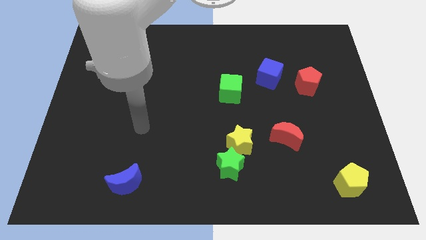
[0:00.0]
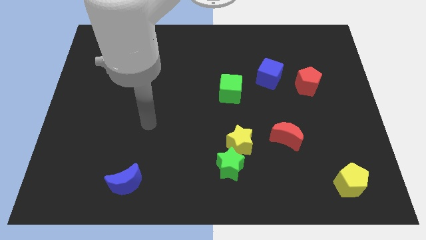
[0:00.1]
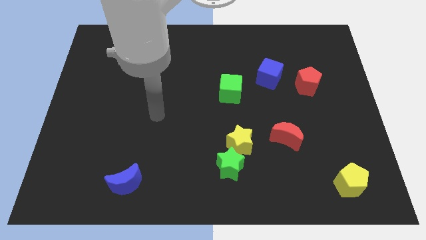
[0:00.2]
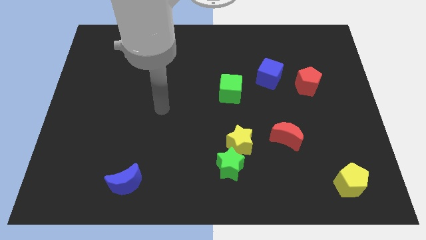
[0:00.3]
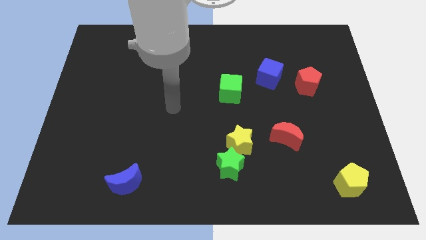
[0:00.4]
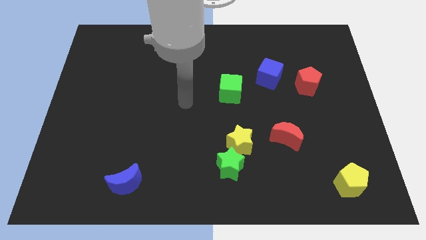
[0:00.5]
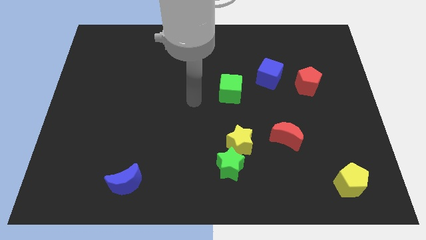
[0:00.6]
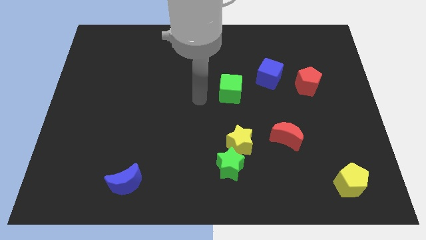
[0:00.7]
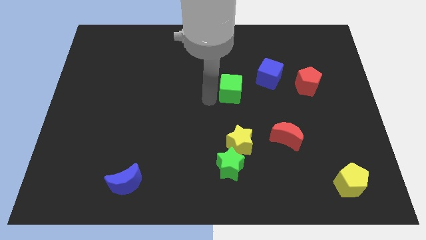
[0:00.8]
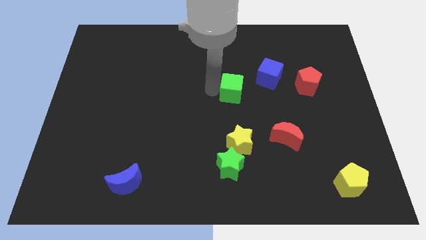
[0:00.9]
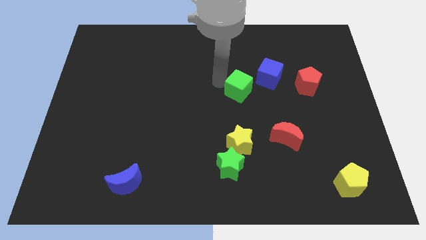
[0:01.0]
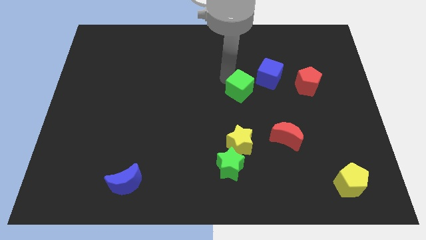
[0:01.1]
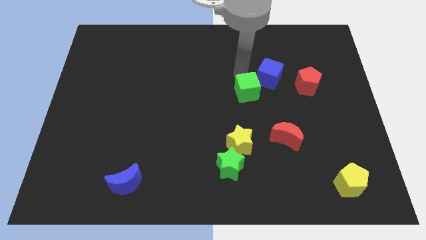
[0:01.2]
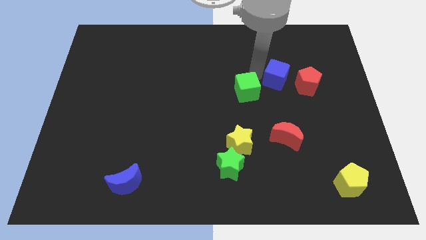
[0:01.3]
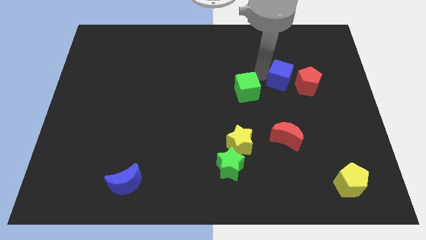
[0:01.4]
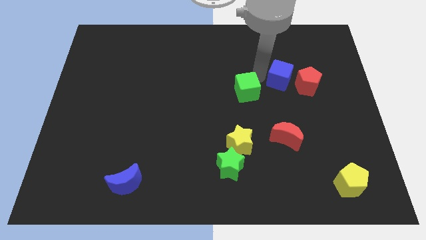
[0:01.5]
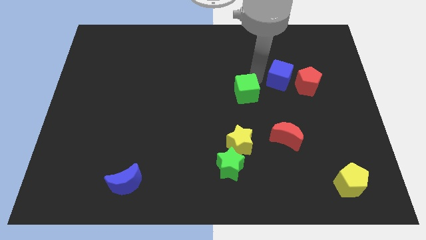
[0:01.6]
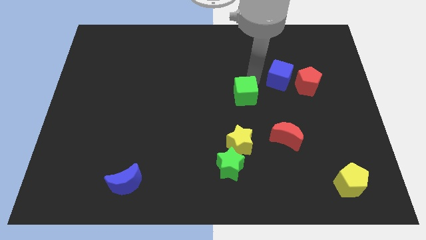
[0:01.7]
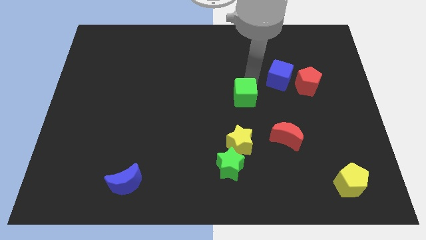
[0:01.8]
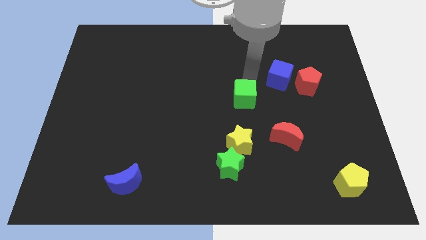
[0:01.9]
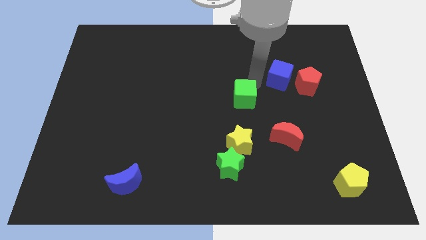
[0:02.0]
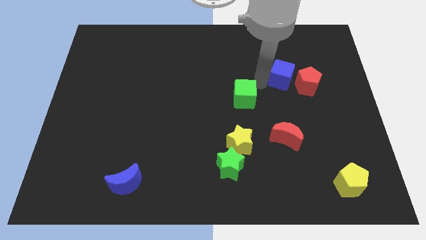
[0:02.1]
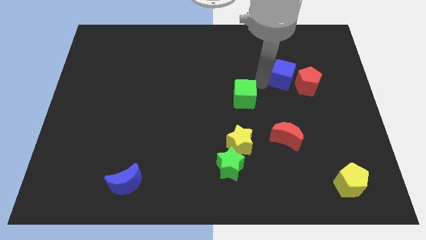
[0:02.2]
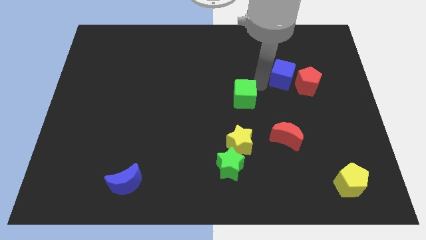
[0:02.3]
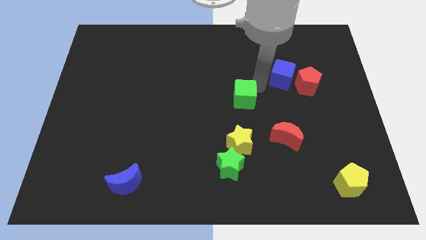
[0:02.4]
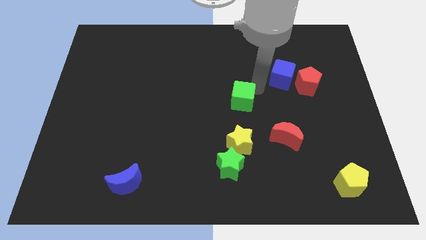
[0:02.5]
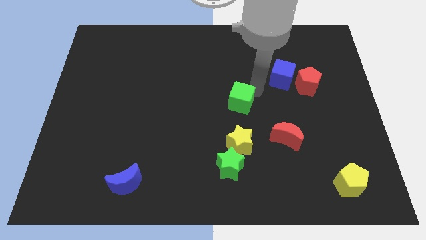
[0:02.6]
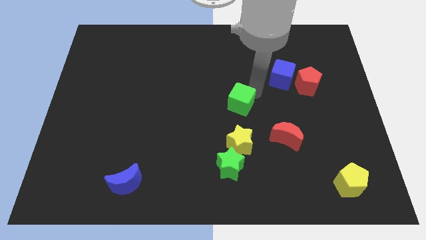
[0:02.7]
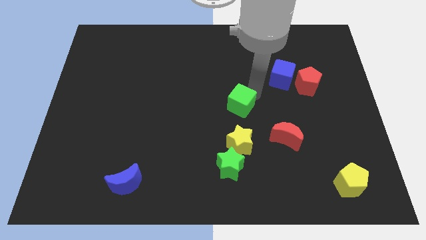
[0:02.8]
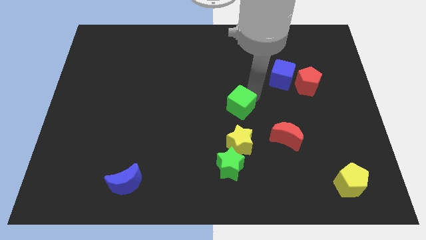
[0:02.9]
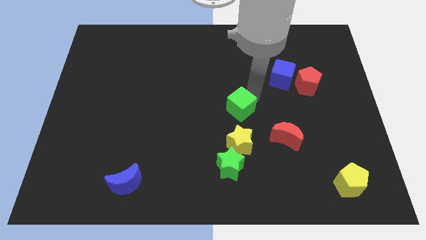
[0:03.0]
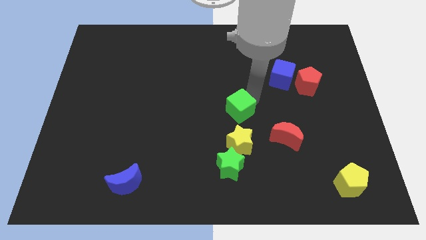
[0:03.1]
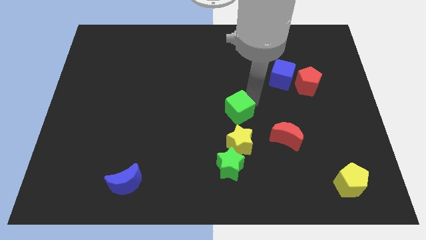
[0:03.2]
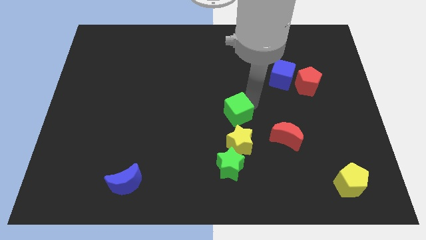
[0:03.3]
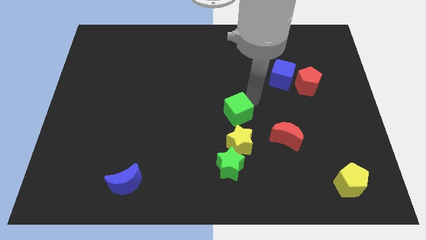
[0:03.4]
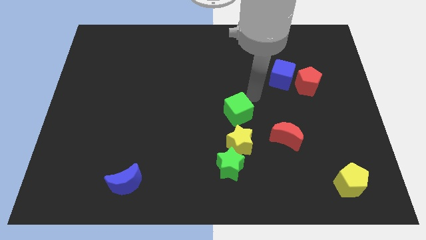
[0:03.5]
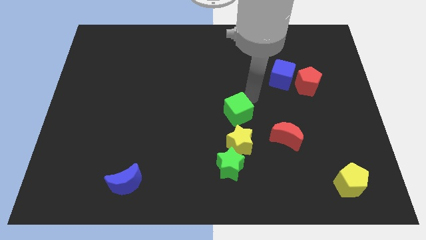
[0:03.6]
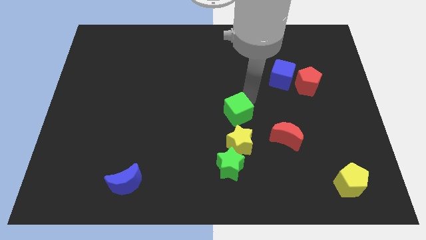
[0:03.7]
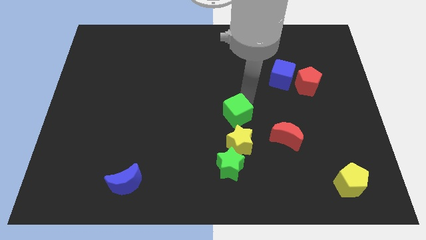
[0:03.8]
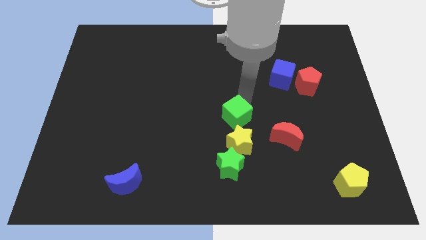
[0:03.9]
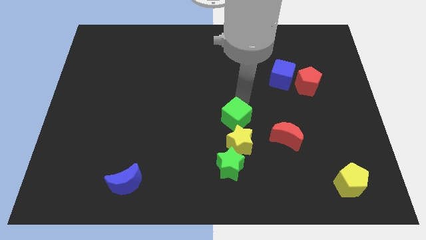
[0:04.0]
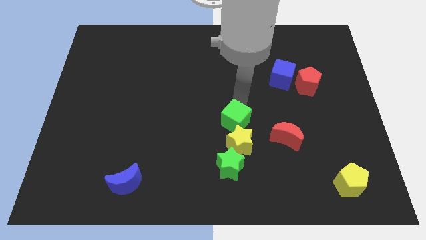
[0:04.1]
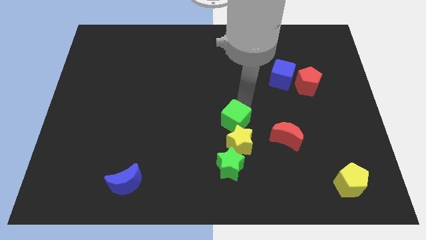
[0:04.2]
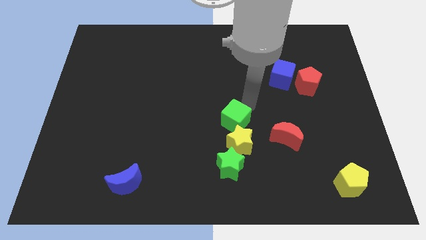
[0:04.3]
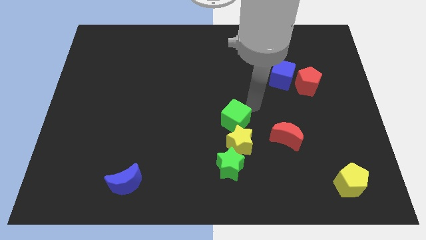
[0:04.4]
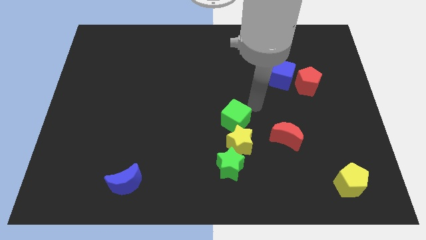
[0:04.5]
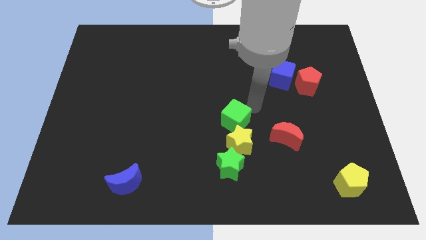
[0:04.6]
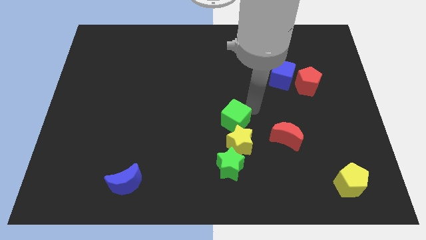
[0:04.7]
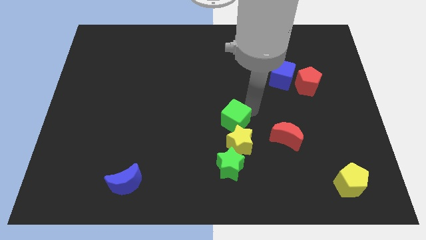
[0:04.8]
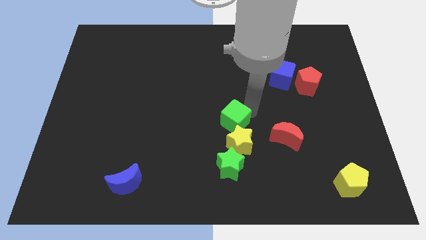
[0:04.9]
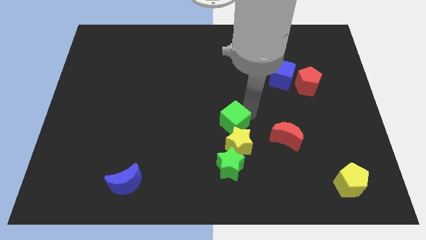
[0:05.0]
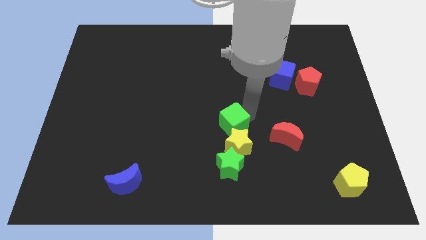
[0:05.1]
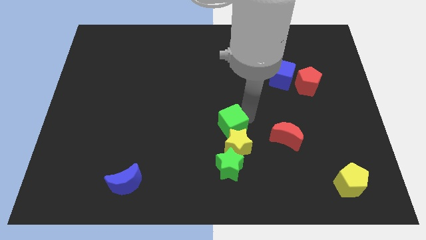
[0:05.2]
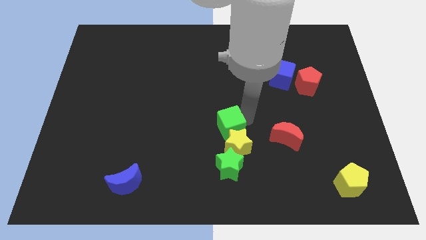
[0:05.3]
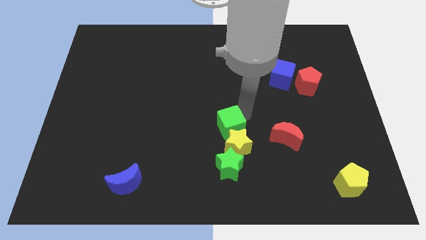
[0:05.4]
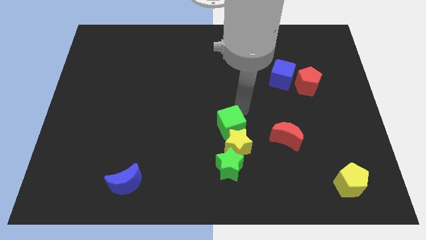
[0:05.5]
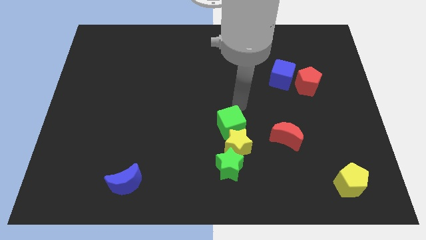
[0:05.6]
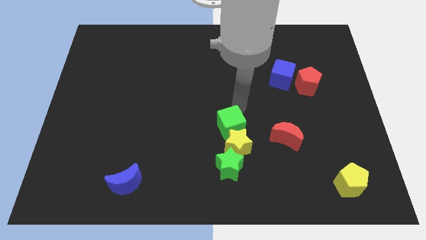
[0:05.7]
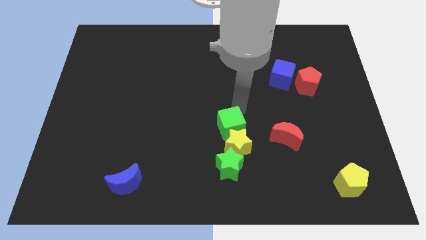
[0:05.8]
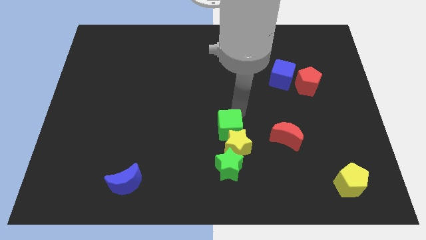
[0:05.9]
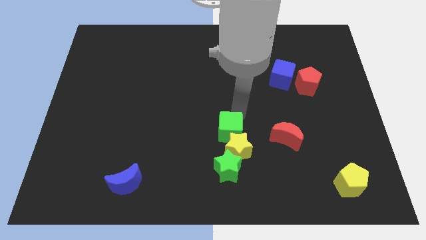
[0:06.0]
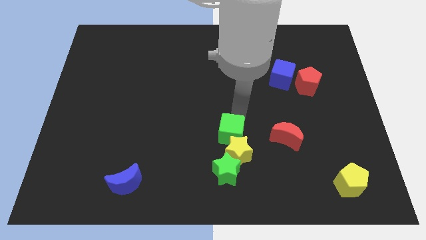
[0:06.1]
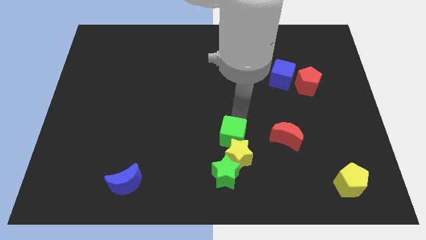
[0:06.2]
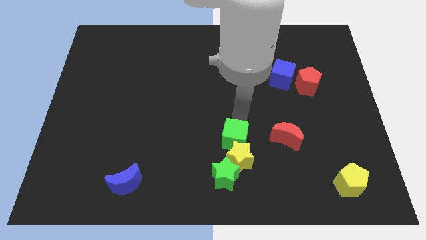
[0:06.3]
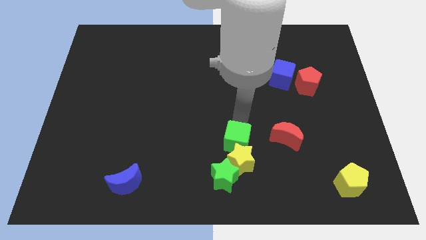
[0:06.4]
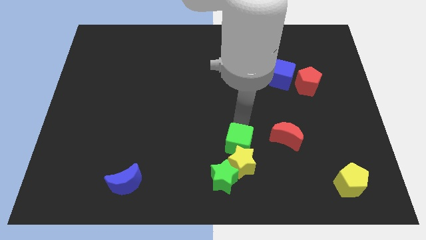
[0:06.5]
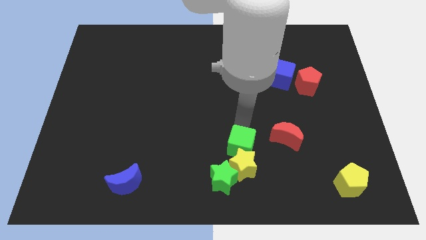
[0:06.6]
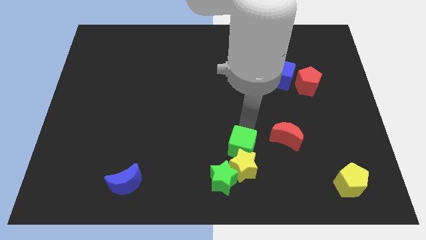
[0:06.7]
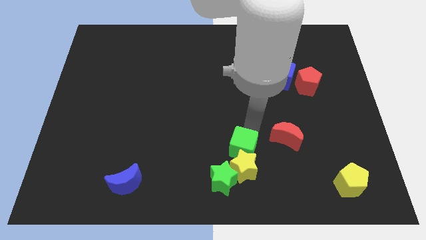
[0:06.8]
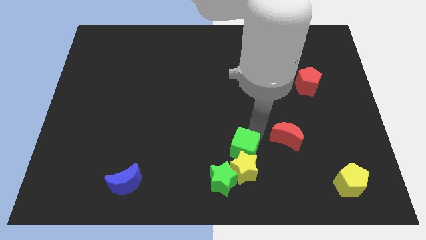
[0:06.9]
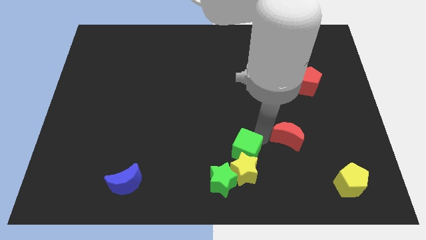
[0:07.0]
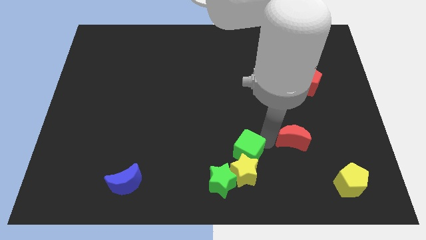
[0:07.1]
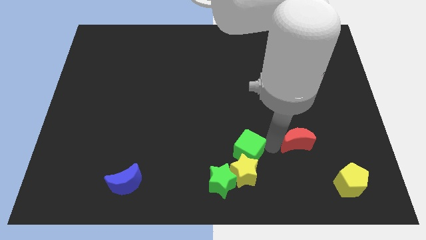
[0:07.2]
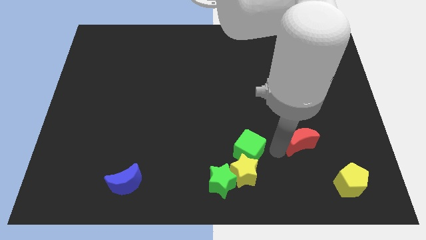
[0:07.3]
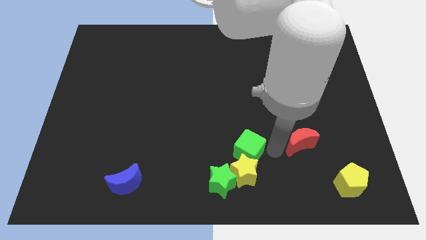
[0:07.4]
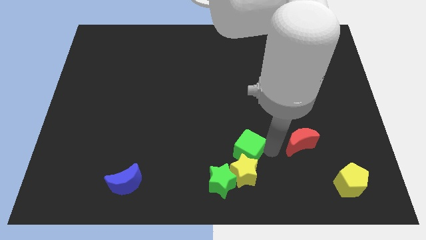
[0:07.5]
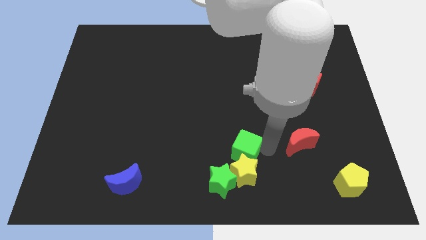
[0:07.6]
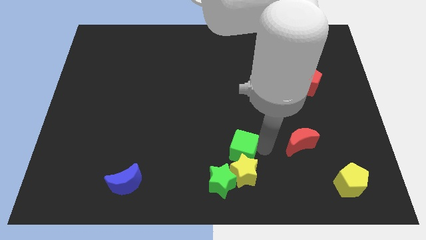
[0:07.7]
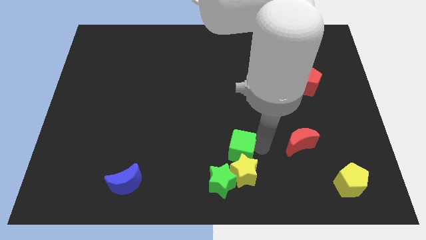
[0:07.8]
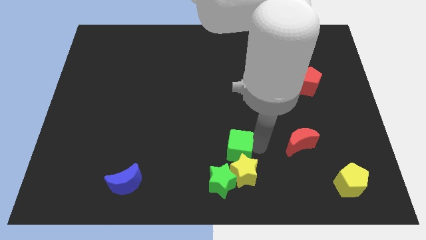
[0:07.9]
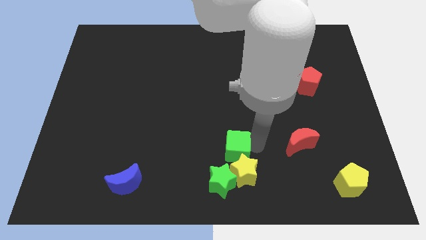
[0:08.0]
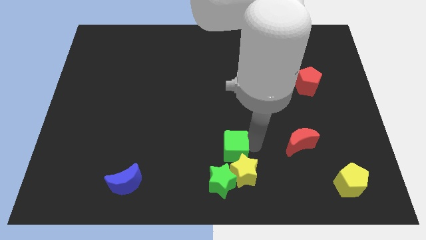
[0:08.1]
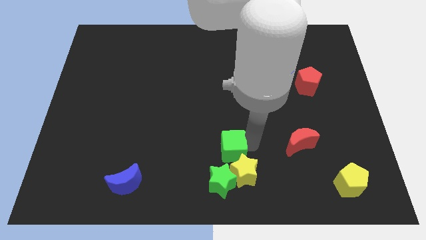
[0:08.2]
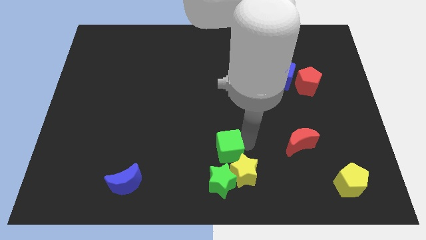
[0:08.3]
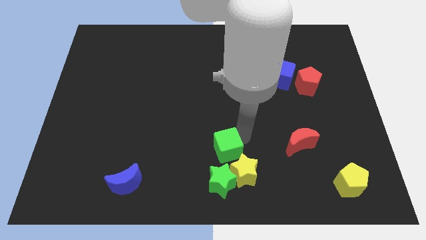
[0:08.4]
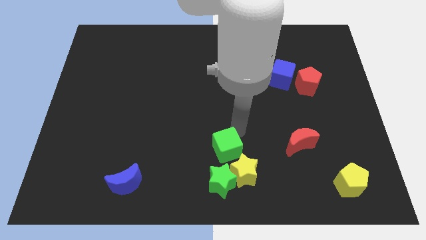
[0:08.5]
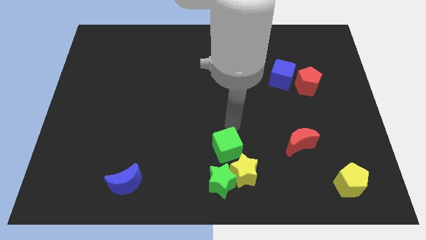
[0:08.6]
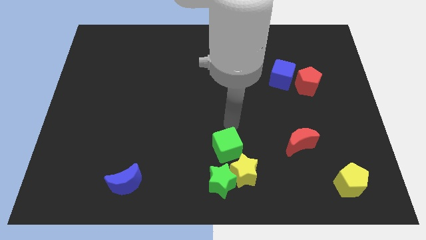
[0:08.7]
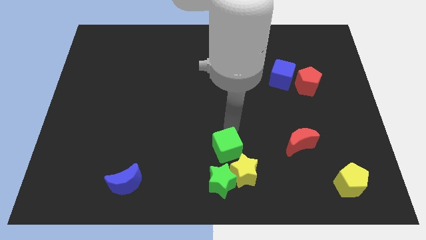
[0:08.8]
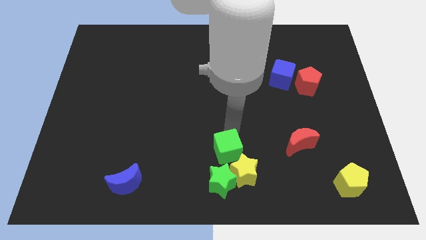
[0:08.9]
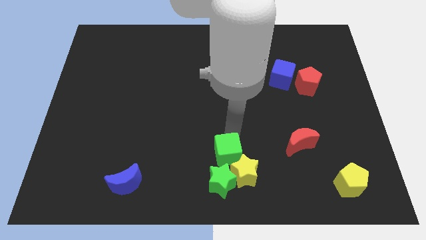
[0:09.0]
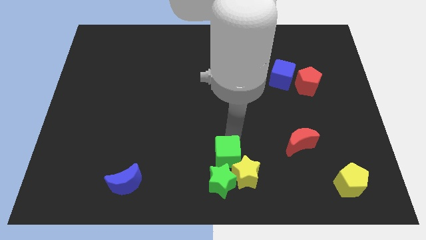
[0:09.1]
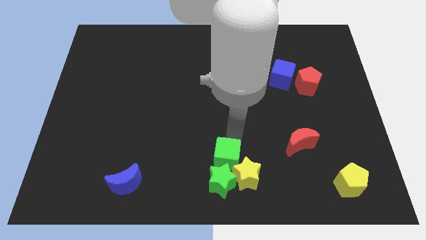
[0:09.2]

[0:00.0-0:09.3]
put the green cube to the green star
